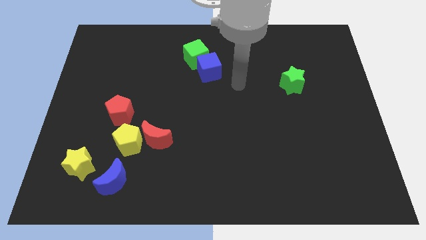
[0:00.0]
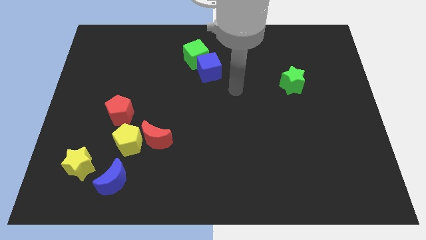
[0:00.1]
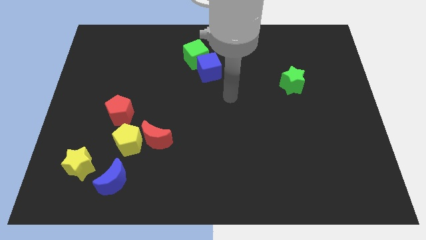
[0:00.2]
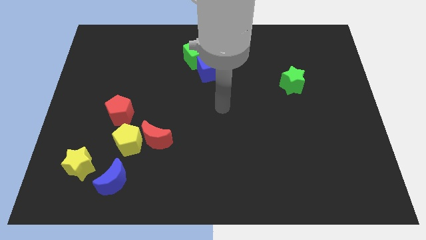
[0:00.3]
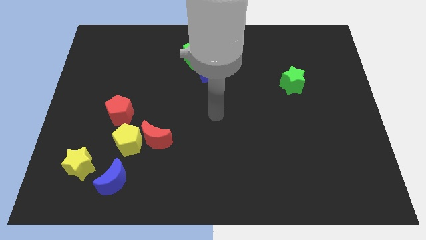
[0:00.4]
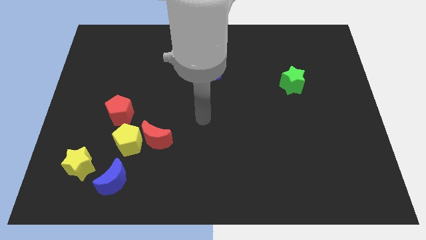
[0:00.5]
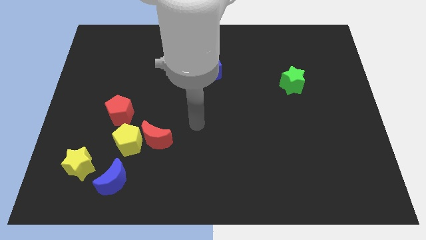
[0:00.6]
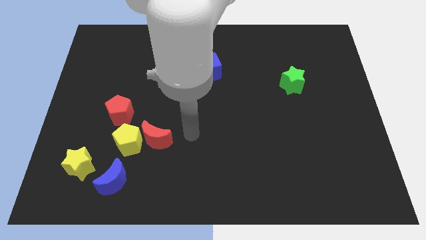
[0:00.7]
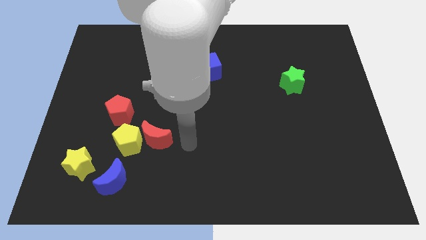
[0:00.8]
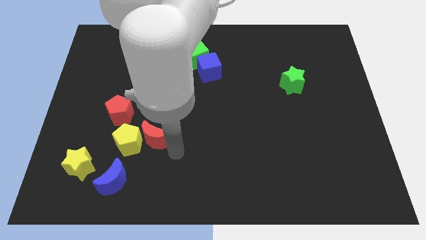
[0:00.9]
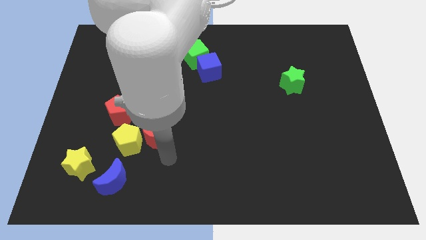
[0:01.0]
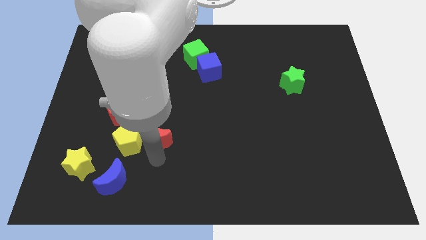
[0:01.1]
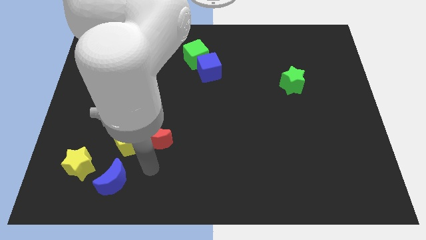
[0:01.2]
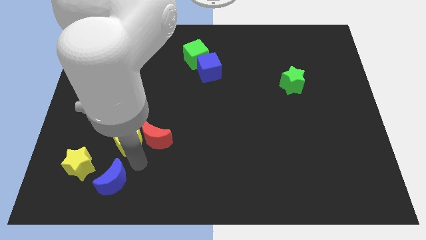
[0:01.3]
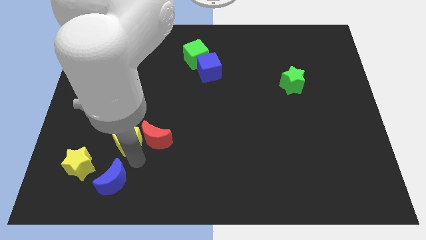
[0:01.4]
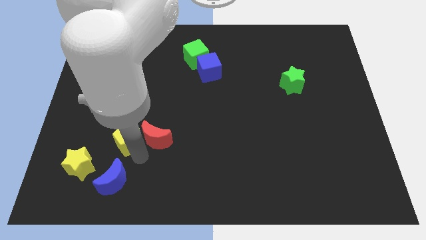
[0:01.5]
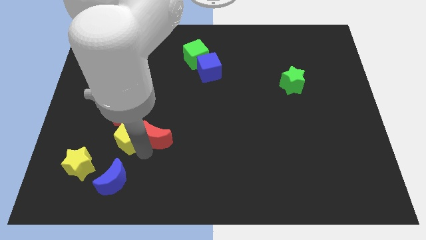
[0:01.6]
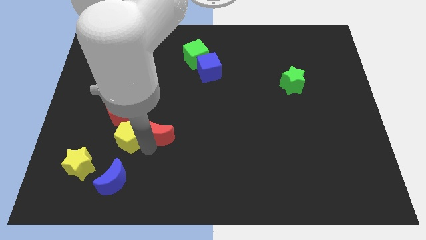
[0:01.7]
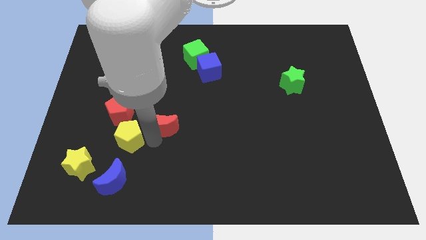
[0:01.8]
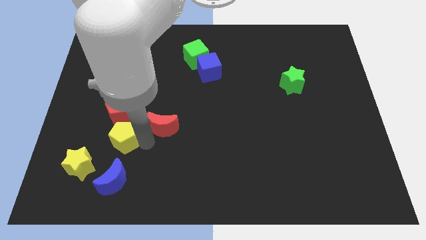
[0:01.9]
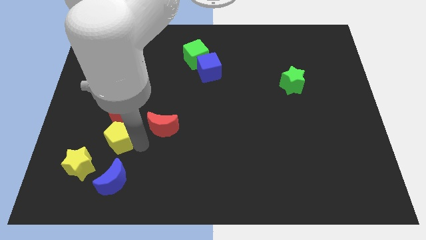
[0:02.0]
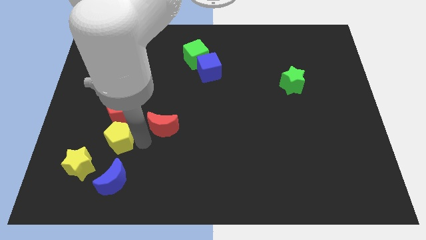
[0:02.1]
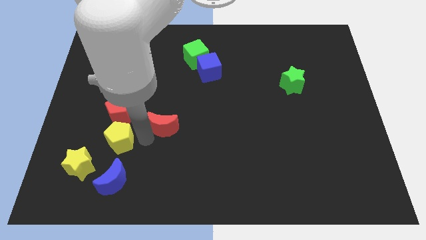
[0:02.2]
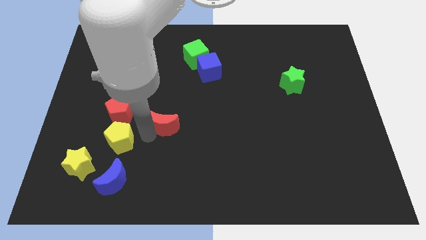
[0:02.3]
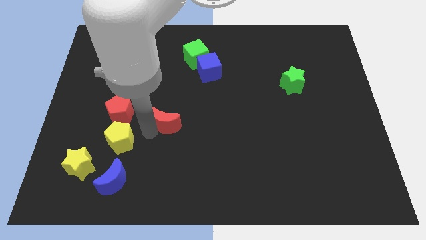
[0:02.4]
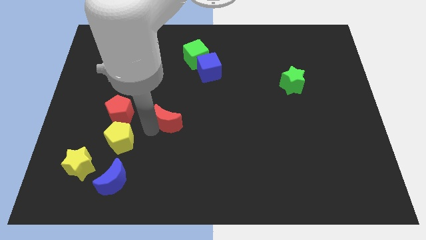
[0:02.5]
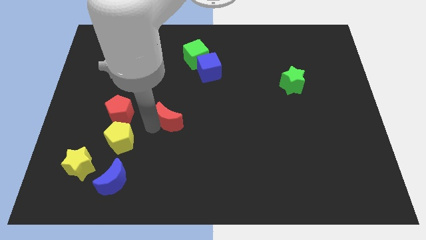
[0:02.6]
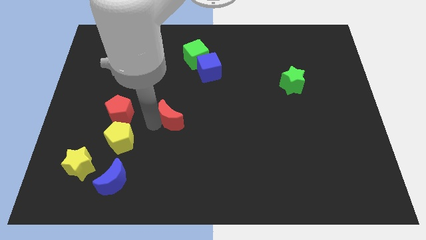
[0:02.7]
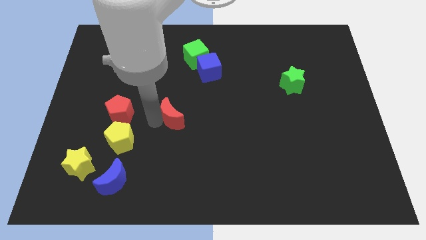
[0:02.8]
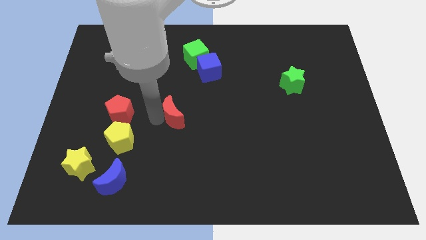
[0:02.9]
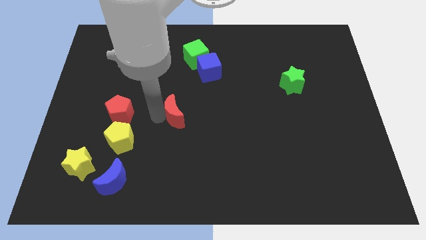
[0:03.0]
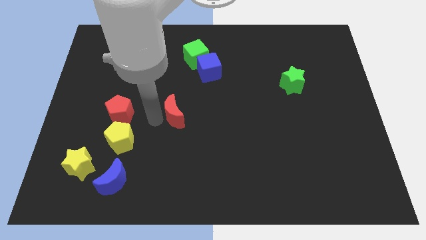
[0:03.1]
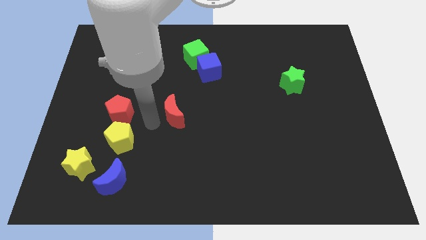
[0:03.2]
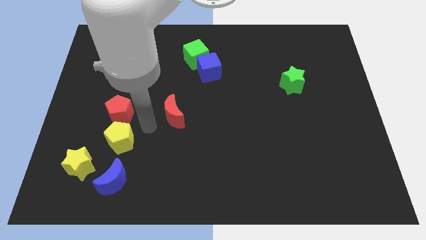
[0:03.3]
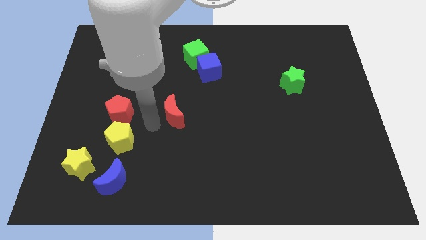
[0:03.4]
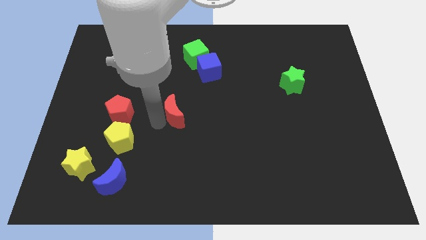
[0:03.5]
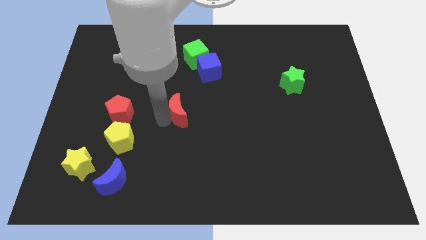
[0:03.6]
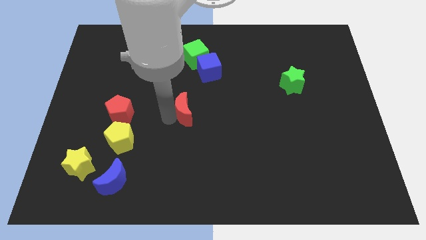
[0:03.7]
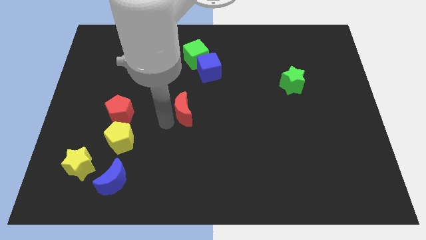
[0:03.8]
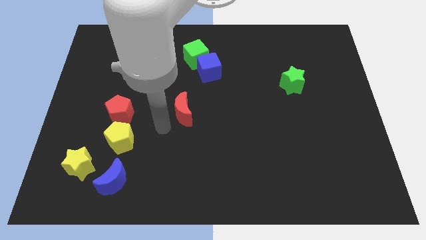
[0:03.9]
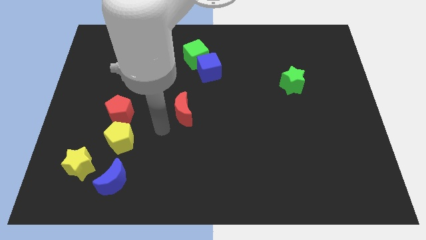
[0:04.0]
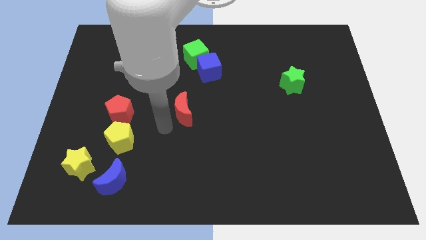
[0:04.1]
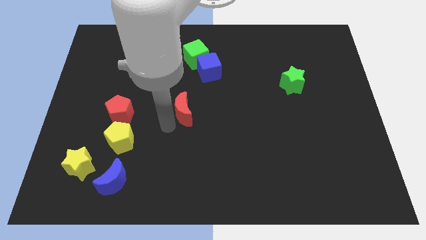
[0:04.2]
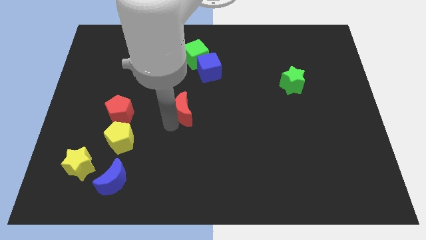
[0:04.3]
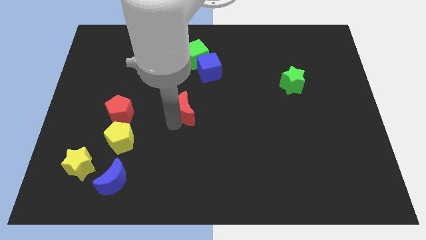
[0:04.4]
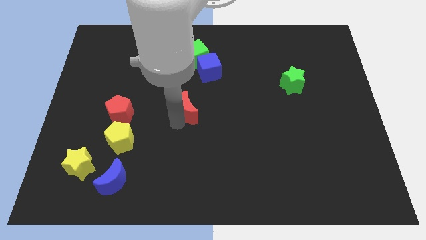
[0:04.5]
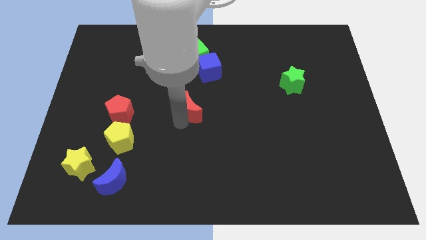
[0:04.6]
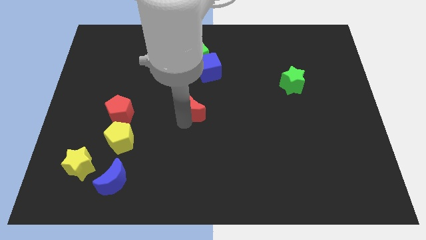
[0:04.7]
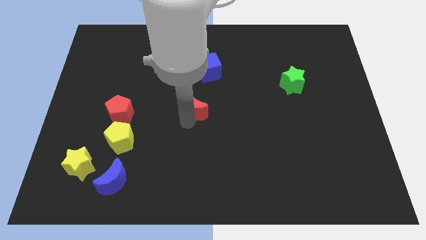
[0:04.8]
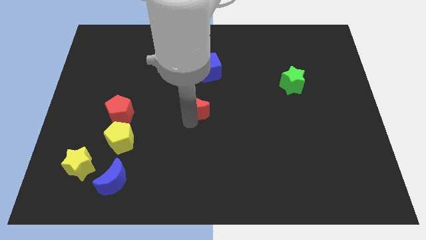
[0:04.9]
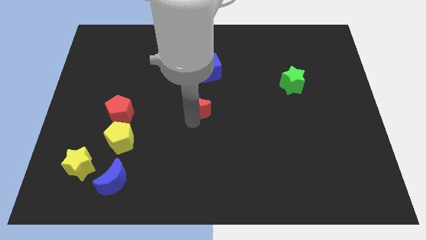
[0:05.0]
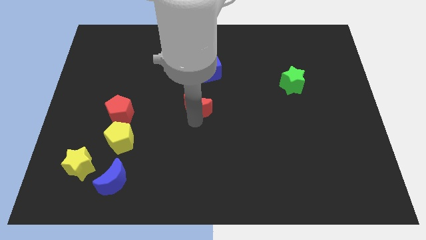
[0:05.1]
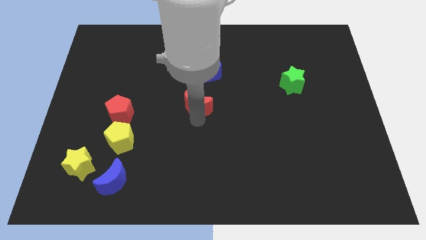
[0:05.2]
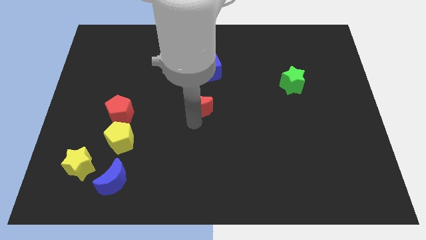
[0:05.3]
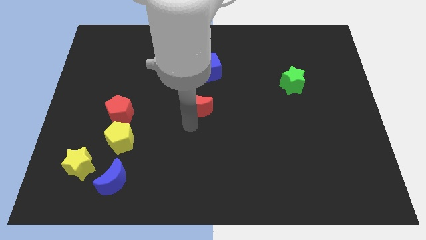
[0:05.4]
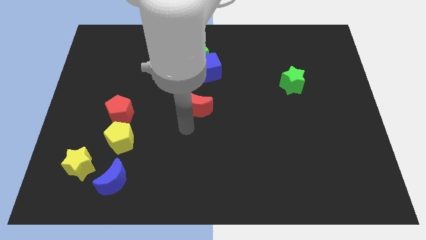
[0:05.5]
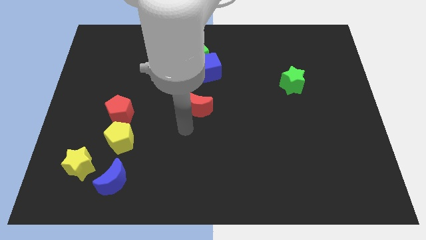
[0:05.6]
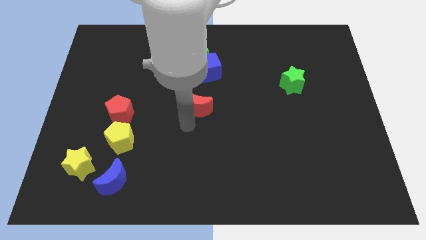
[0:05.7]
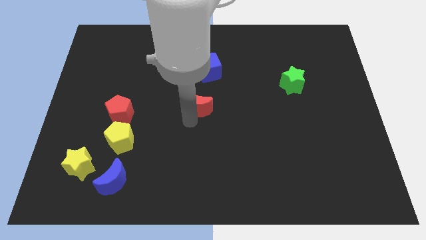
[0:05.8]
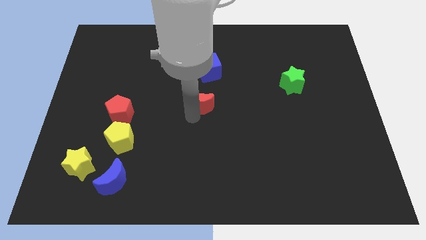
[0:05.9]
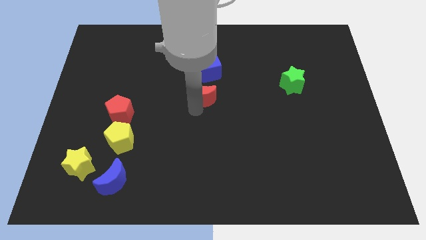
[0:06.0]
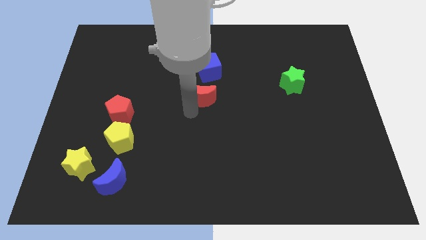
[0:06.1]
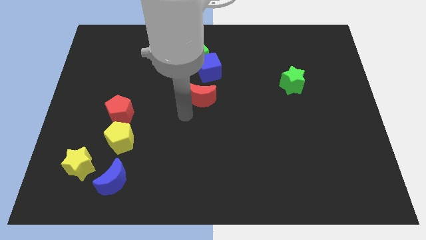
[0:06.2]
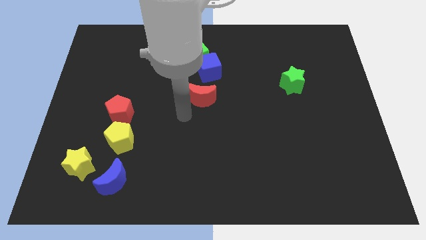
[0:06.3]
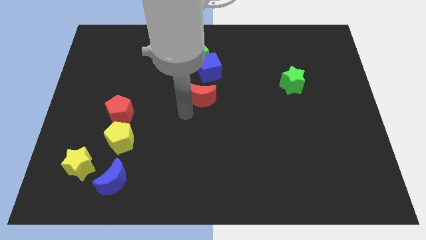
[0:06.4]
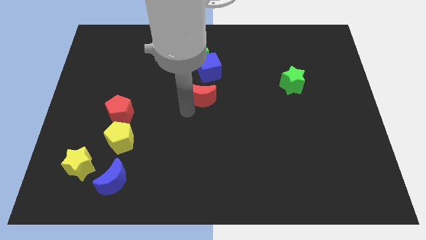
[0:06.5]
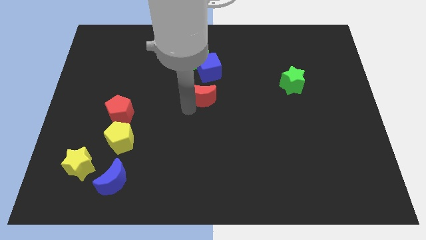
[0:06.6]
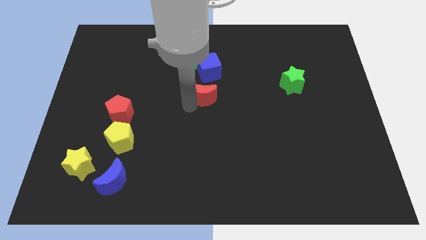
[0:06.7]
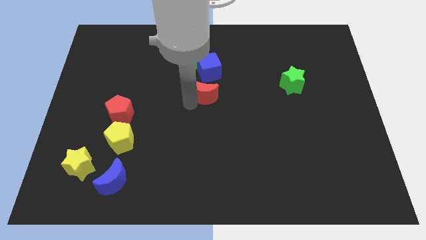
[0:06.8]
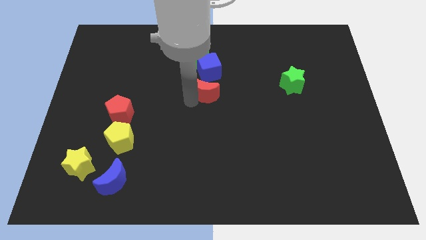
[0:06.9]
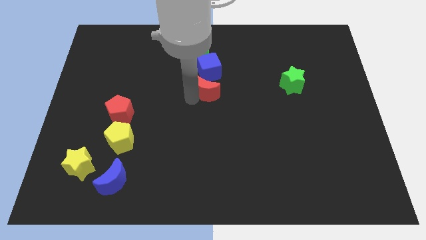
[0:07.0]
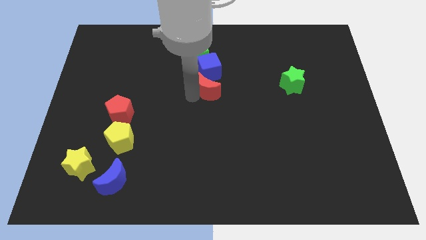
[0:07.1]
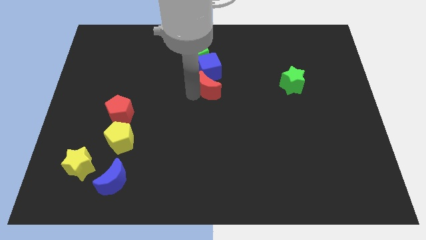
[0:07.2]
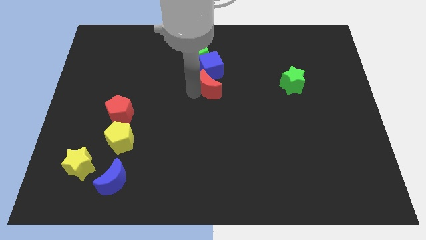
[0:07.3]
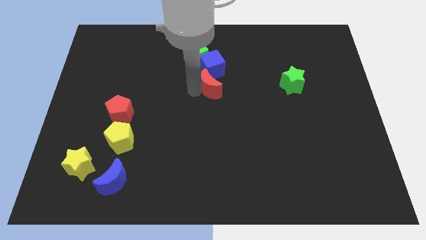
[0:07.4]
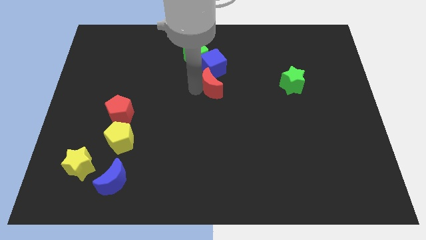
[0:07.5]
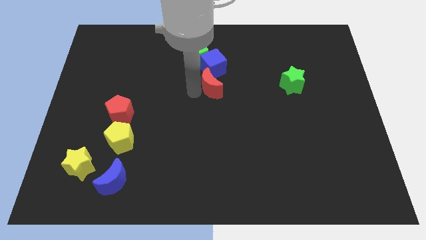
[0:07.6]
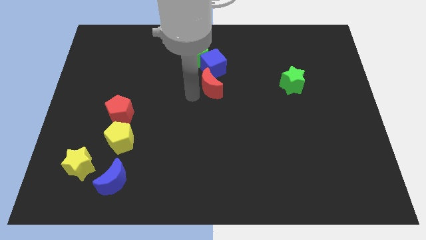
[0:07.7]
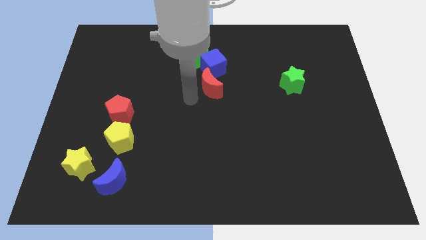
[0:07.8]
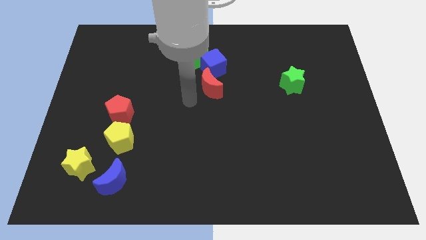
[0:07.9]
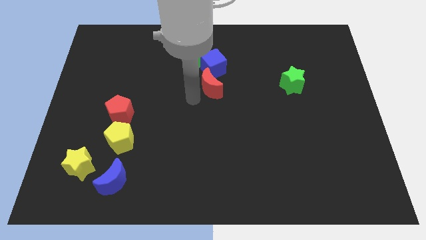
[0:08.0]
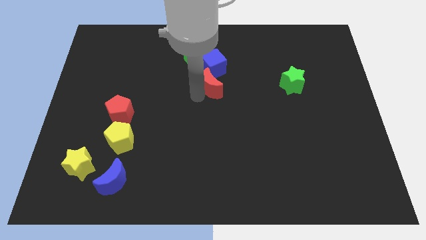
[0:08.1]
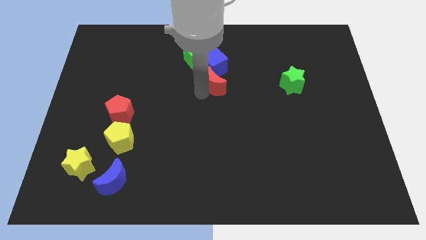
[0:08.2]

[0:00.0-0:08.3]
put the red moon diagonally down and to the right of the green cube
